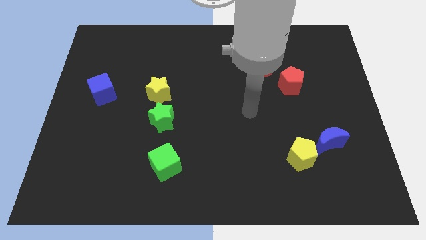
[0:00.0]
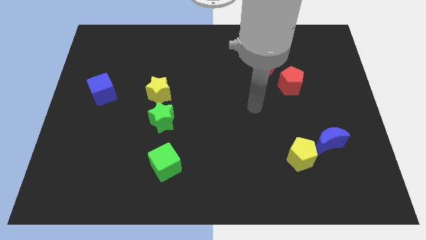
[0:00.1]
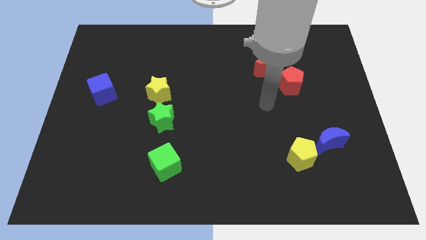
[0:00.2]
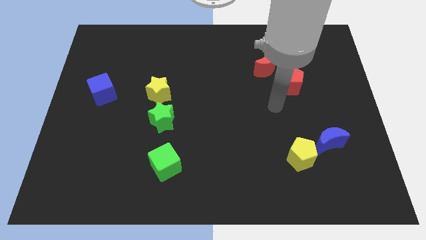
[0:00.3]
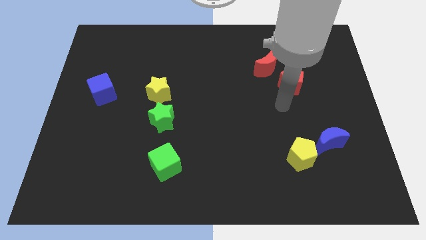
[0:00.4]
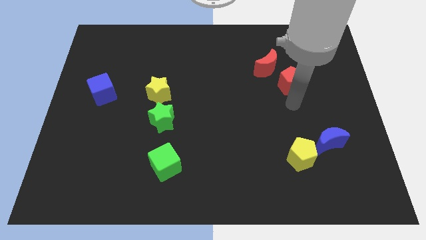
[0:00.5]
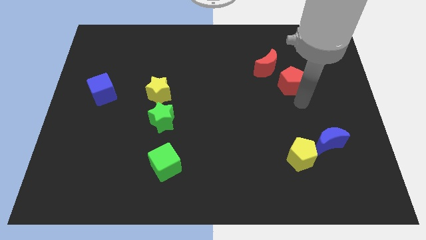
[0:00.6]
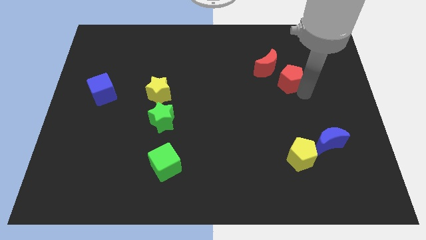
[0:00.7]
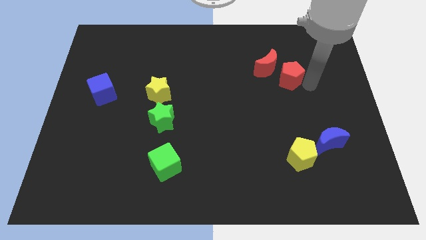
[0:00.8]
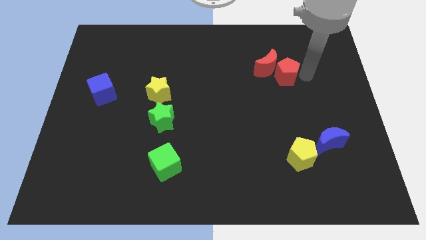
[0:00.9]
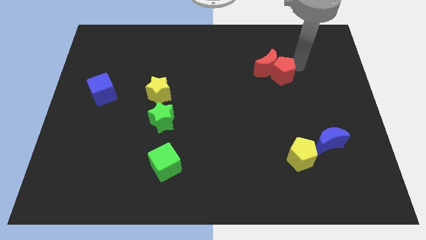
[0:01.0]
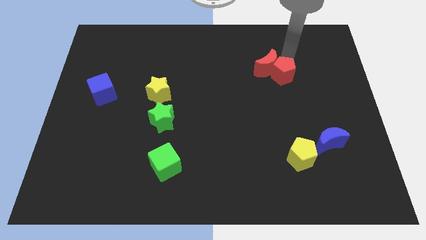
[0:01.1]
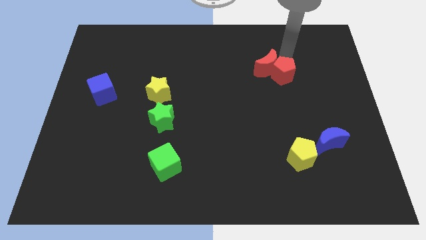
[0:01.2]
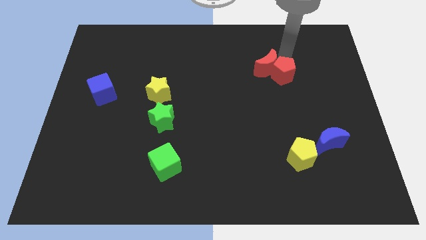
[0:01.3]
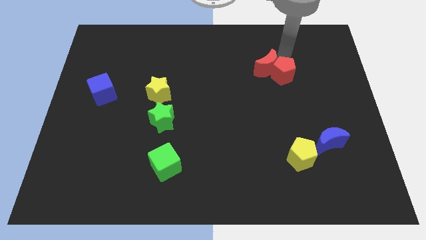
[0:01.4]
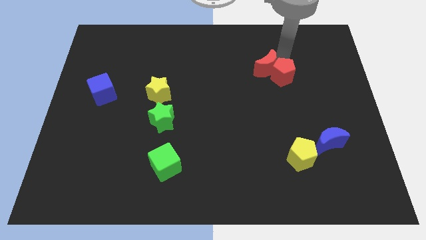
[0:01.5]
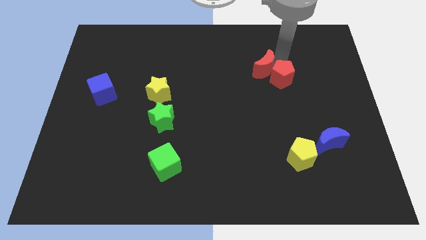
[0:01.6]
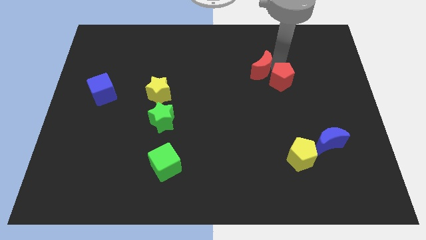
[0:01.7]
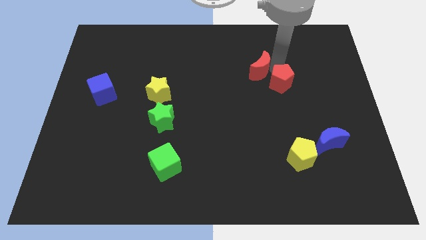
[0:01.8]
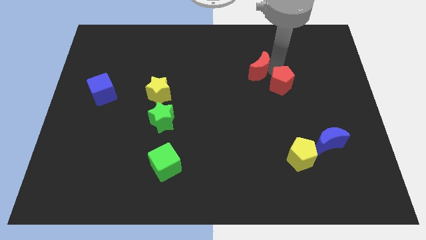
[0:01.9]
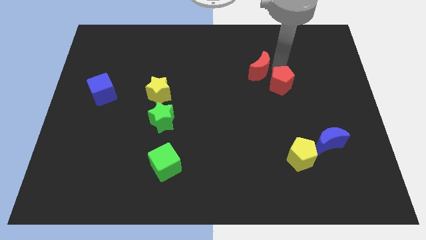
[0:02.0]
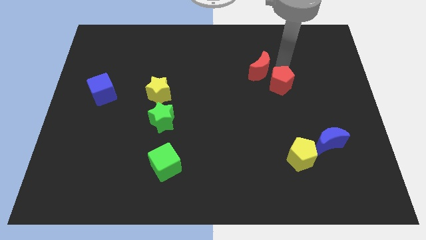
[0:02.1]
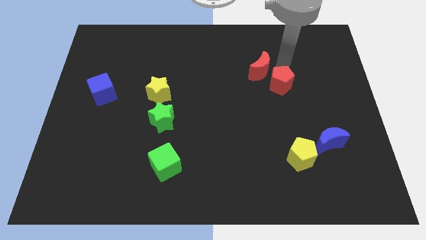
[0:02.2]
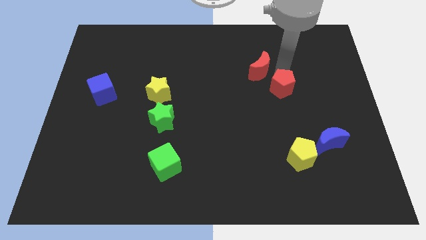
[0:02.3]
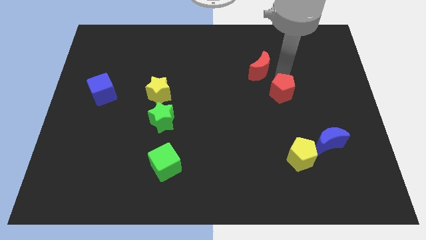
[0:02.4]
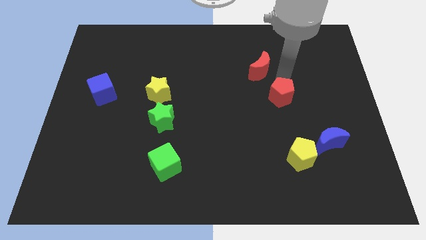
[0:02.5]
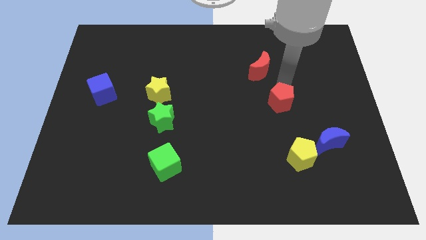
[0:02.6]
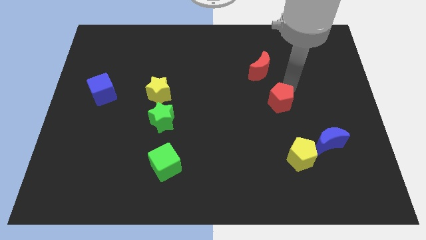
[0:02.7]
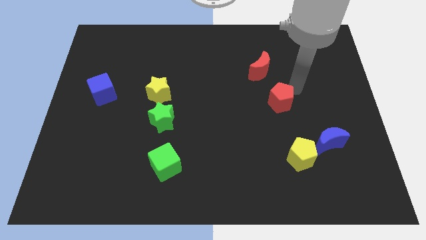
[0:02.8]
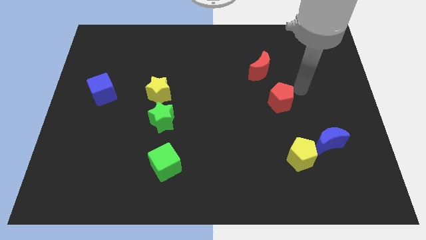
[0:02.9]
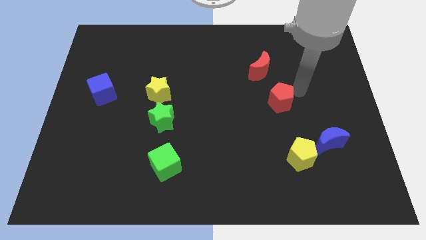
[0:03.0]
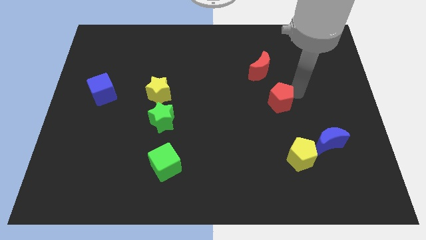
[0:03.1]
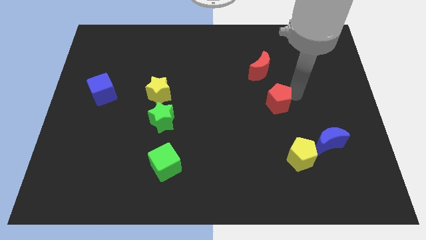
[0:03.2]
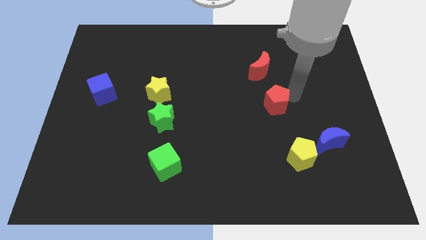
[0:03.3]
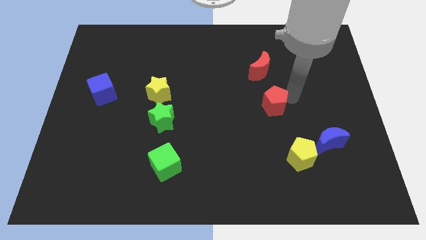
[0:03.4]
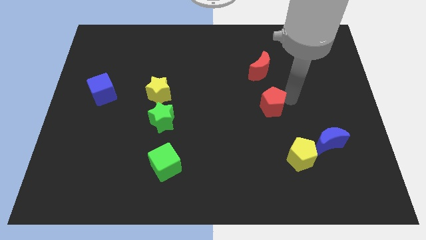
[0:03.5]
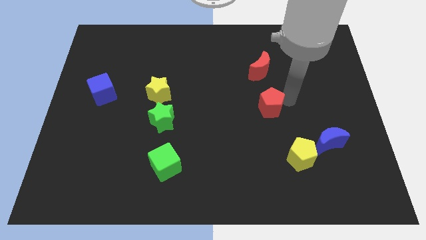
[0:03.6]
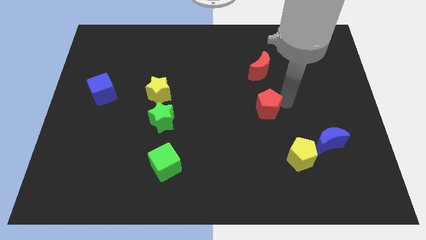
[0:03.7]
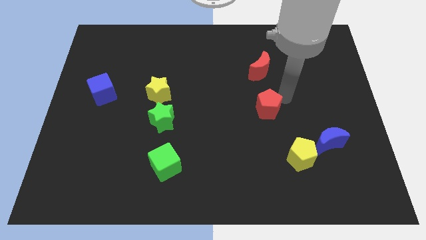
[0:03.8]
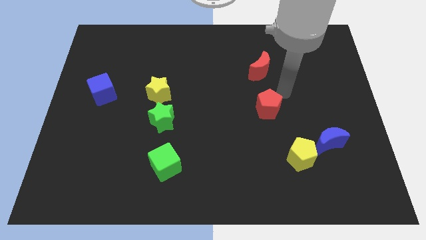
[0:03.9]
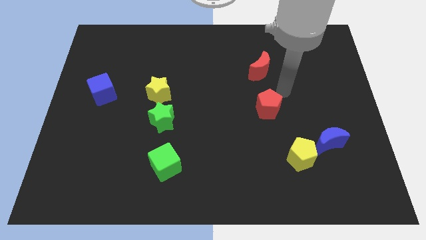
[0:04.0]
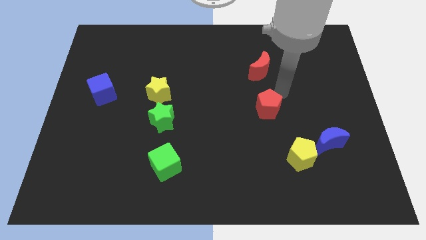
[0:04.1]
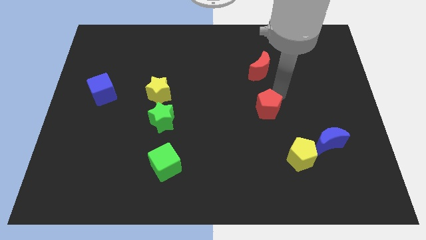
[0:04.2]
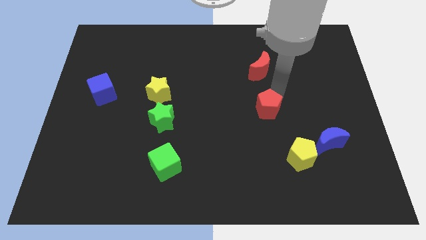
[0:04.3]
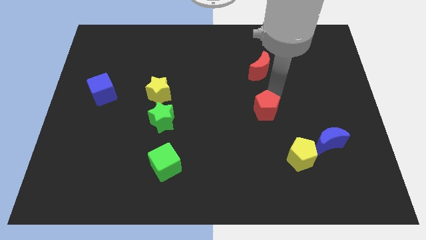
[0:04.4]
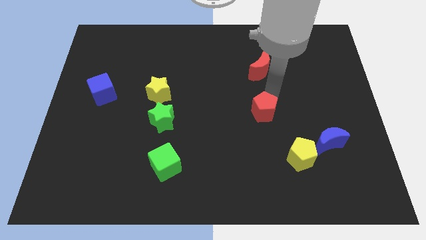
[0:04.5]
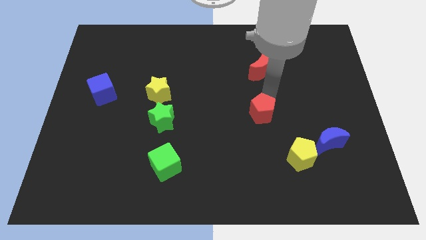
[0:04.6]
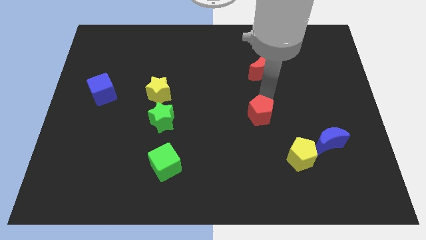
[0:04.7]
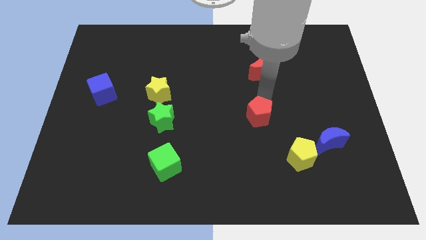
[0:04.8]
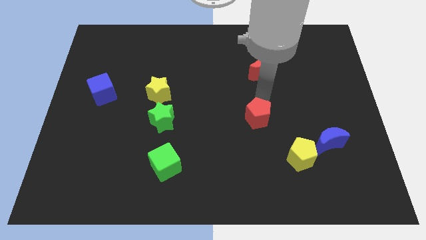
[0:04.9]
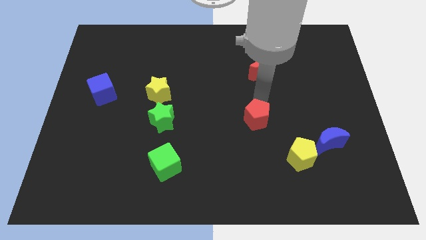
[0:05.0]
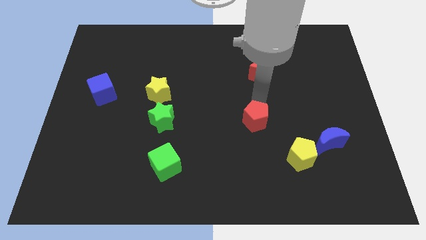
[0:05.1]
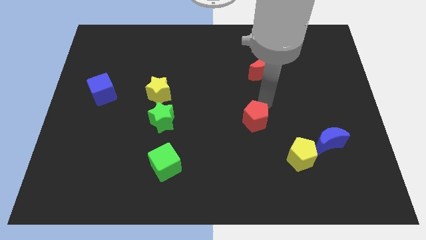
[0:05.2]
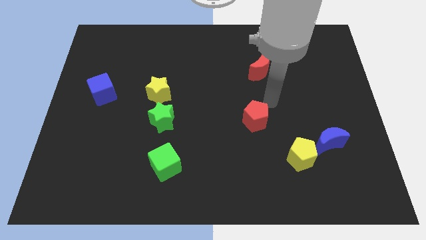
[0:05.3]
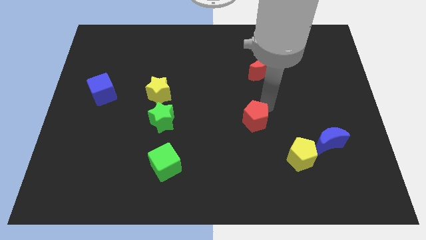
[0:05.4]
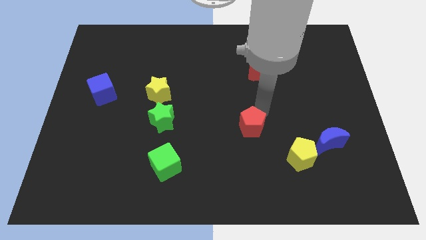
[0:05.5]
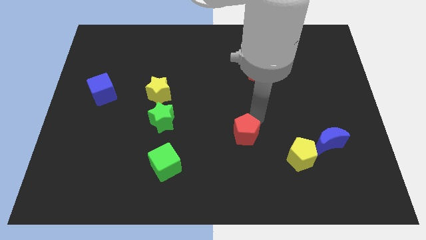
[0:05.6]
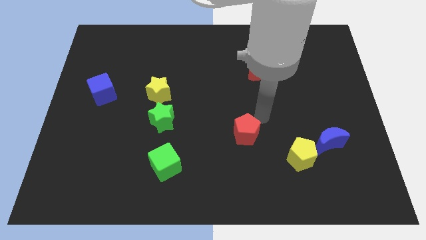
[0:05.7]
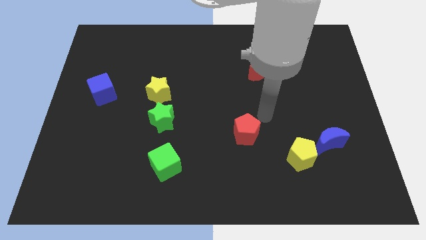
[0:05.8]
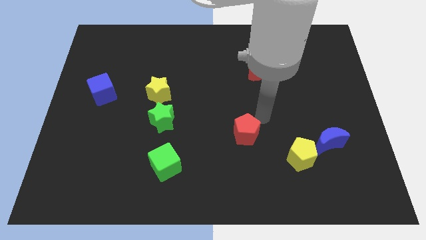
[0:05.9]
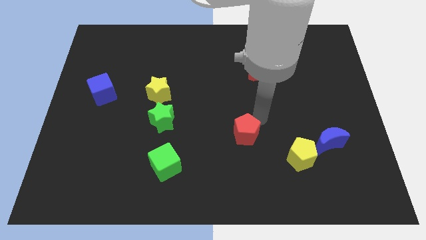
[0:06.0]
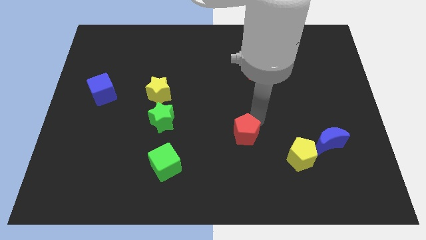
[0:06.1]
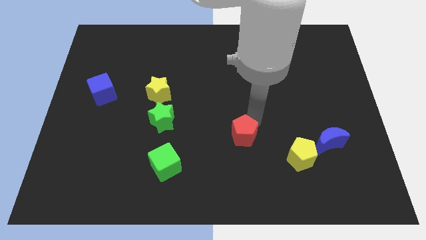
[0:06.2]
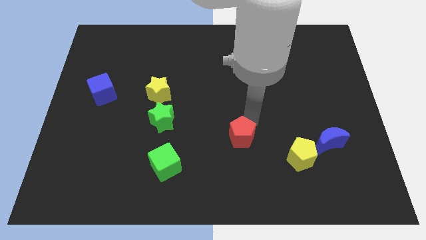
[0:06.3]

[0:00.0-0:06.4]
move the red pentagon diagonally down and left

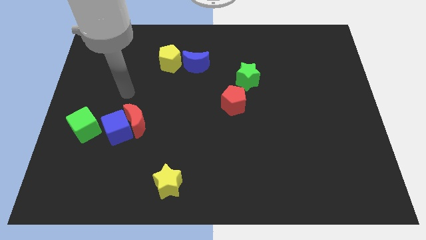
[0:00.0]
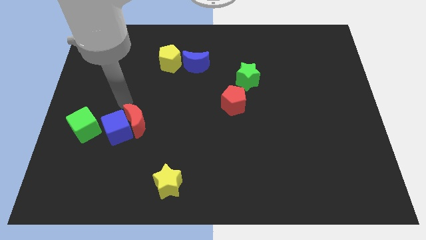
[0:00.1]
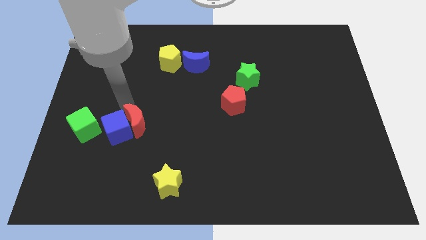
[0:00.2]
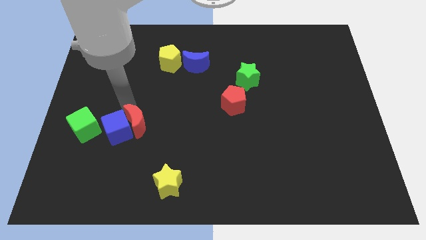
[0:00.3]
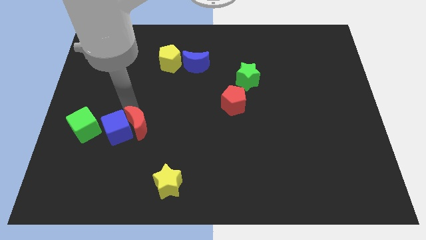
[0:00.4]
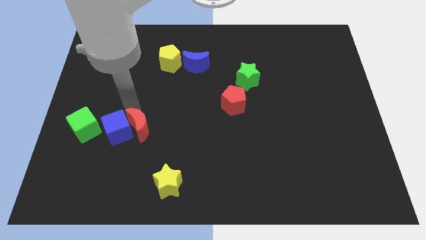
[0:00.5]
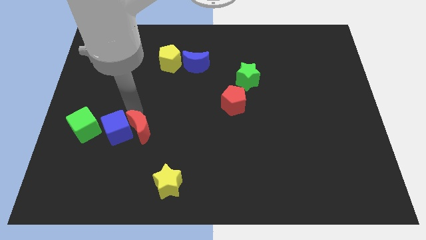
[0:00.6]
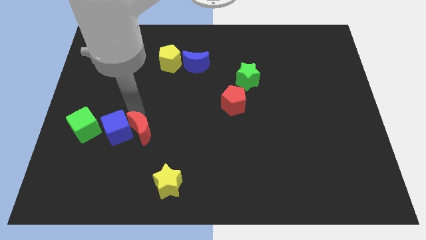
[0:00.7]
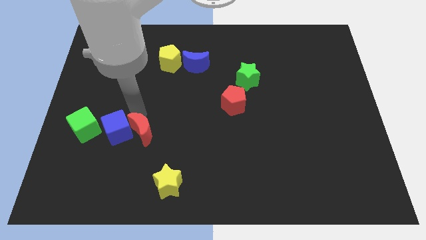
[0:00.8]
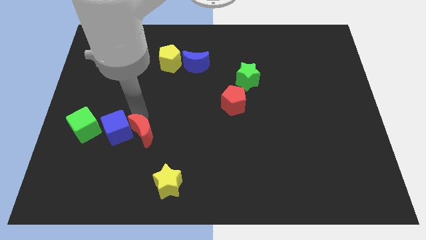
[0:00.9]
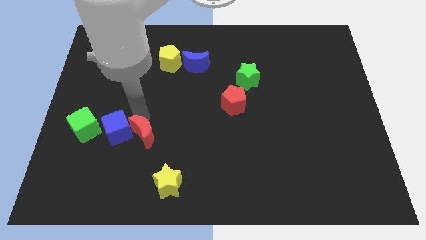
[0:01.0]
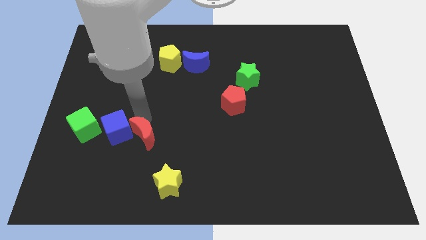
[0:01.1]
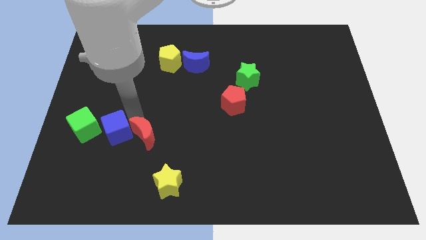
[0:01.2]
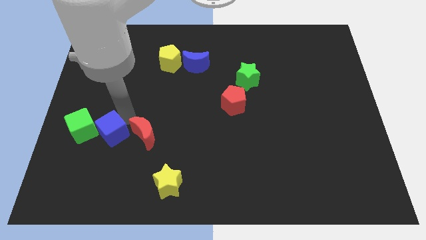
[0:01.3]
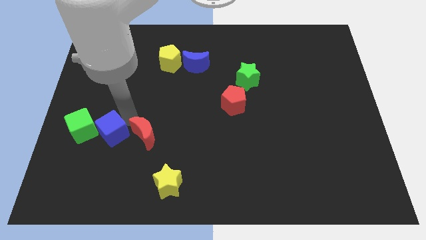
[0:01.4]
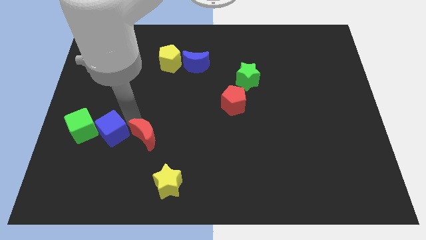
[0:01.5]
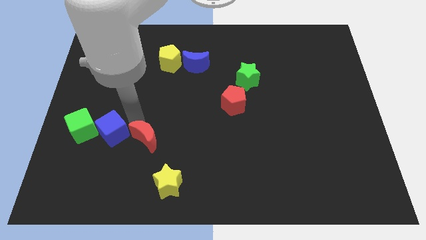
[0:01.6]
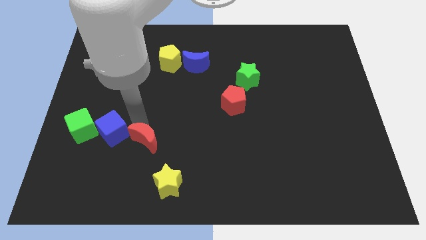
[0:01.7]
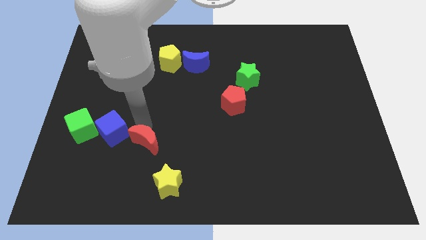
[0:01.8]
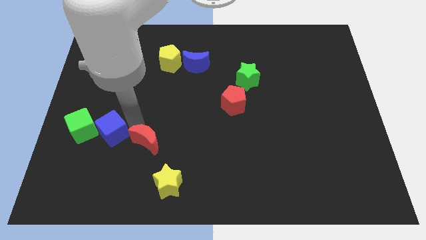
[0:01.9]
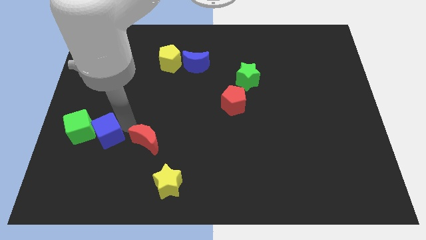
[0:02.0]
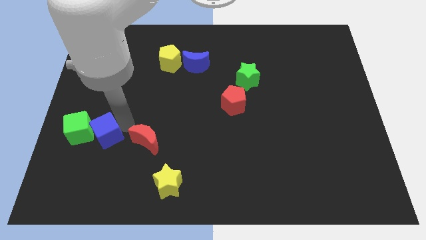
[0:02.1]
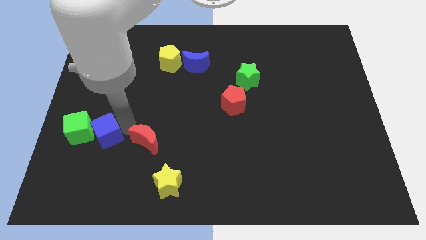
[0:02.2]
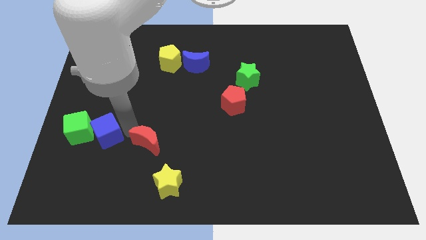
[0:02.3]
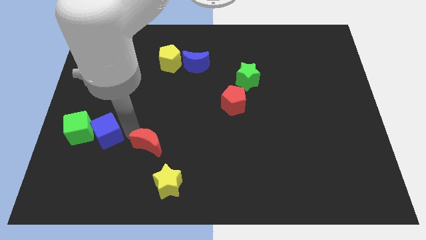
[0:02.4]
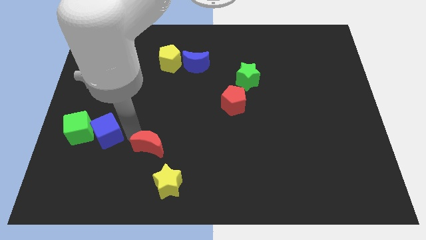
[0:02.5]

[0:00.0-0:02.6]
slightly slide the red moon diagonally down and to the right
